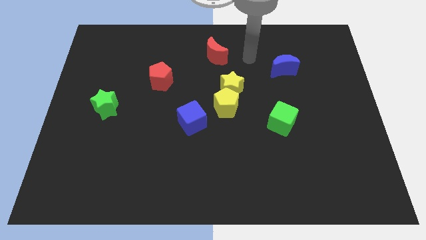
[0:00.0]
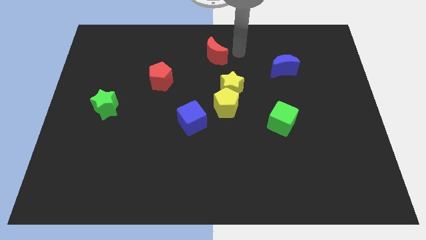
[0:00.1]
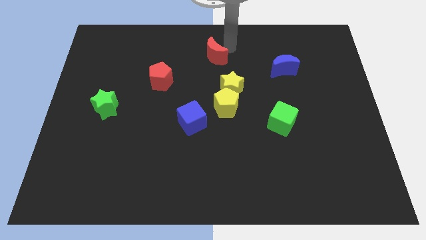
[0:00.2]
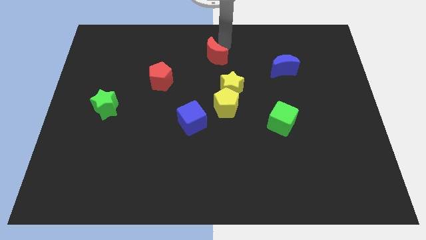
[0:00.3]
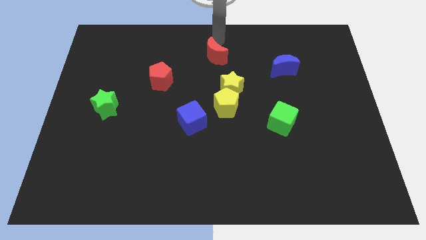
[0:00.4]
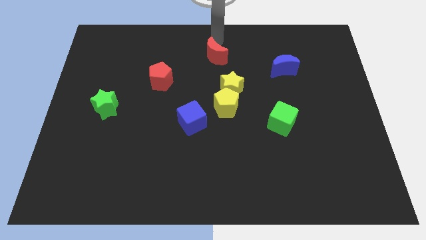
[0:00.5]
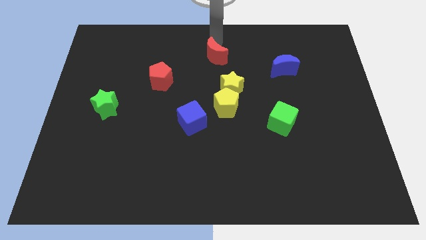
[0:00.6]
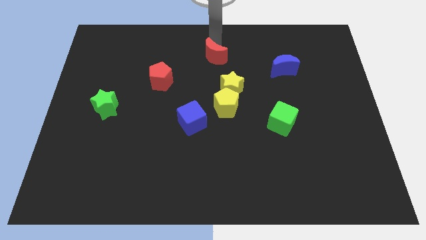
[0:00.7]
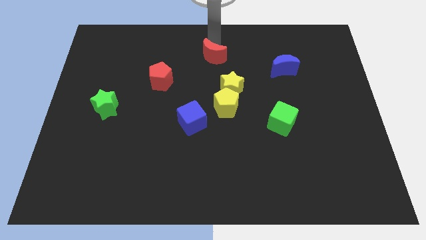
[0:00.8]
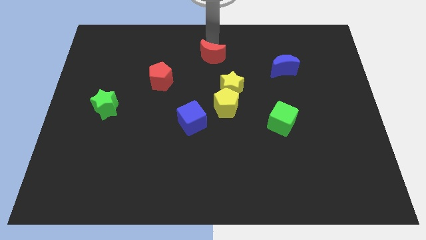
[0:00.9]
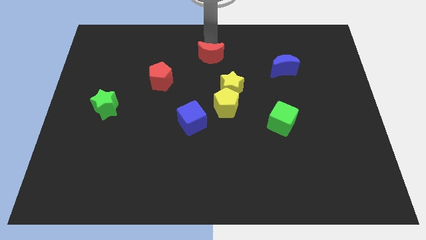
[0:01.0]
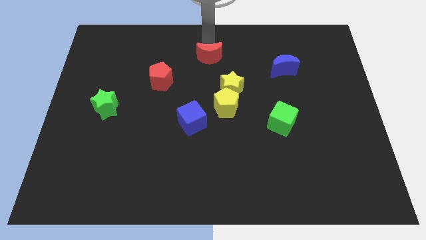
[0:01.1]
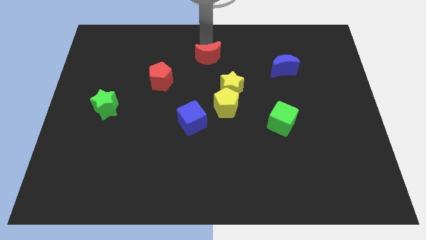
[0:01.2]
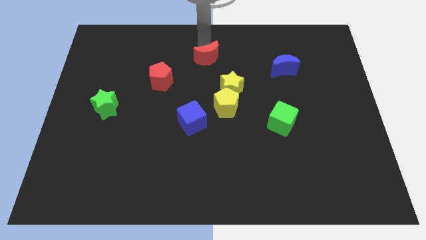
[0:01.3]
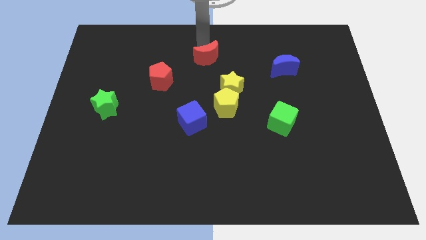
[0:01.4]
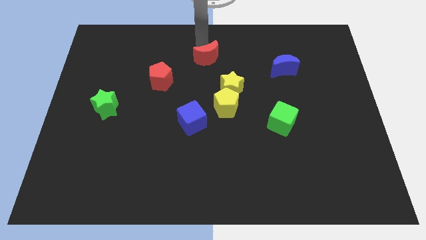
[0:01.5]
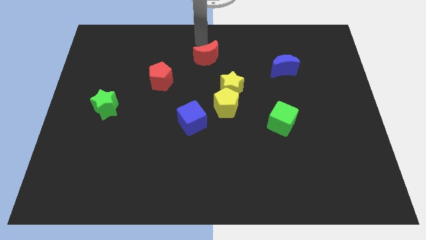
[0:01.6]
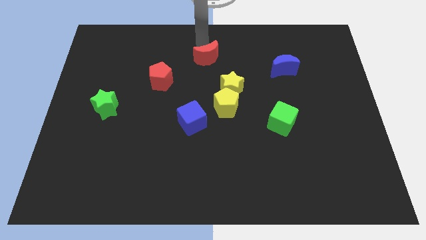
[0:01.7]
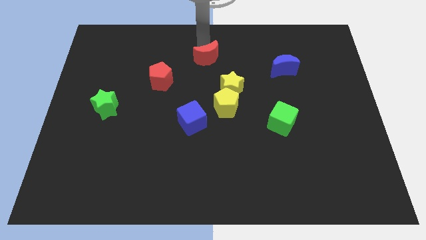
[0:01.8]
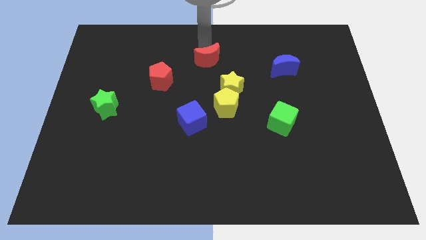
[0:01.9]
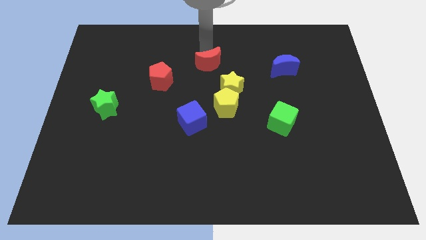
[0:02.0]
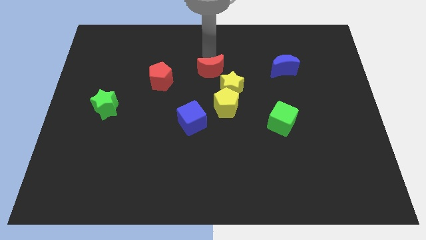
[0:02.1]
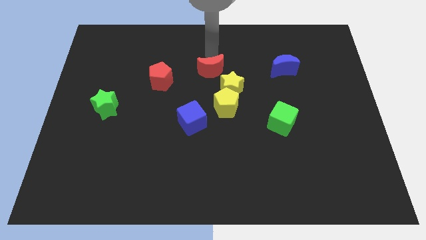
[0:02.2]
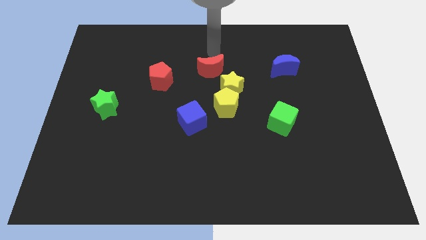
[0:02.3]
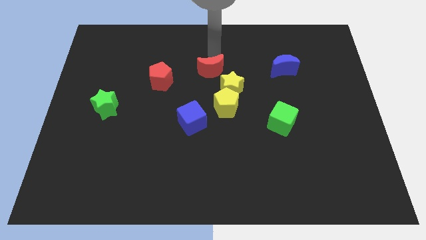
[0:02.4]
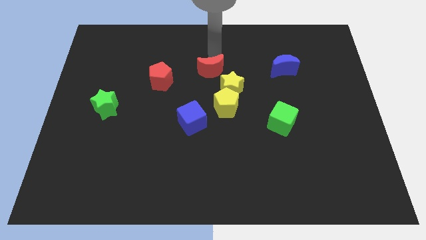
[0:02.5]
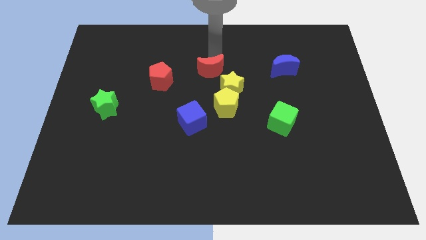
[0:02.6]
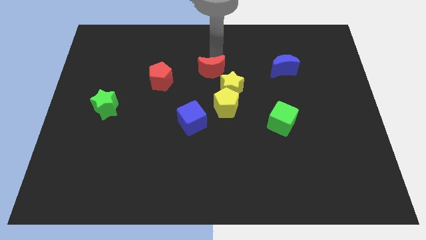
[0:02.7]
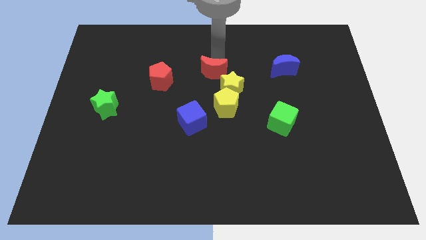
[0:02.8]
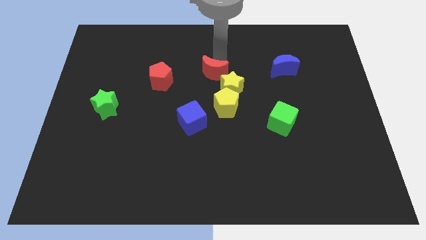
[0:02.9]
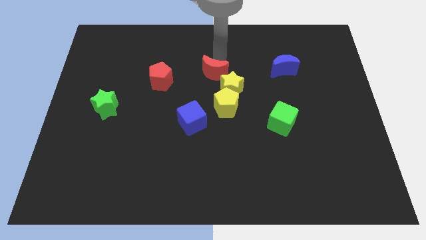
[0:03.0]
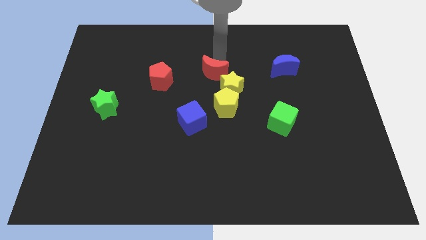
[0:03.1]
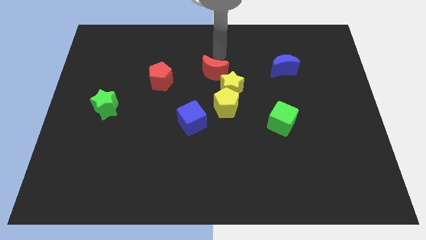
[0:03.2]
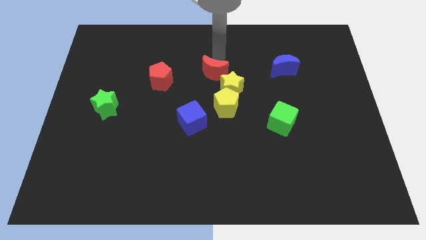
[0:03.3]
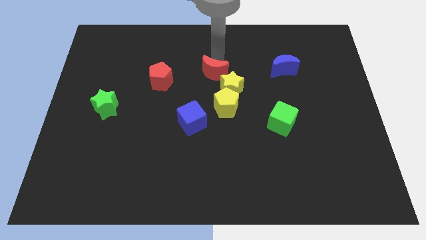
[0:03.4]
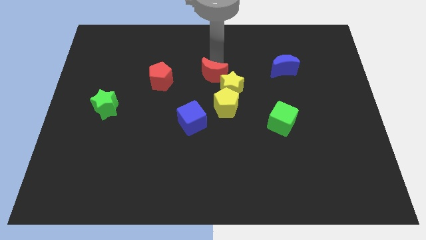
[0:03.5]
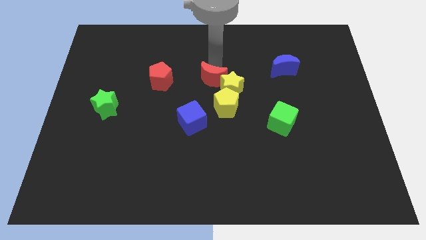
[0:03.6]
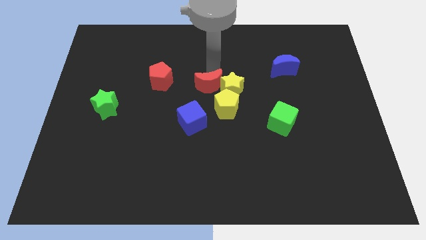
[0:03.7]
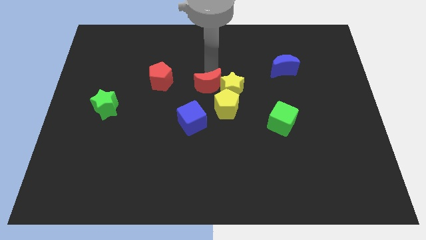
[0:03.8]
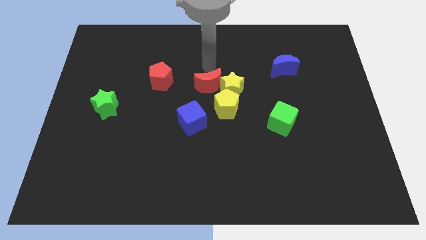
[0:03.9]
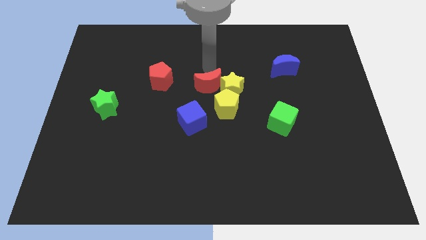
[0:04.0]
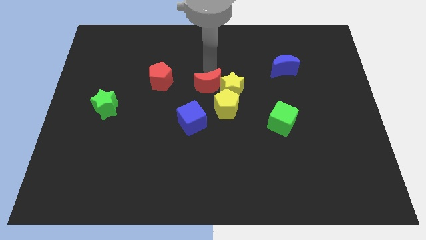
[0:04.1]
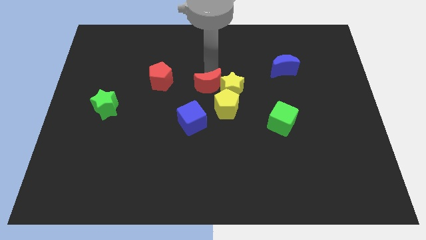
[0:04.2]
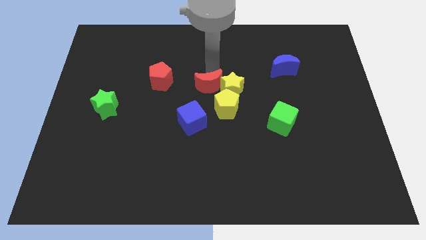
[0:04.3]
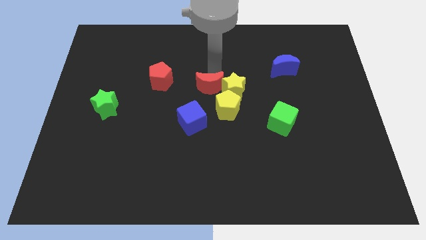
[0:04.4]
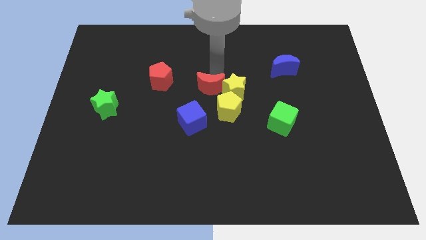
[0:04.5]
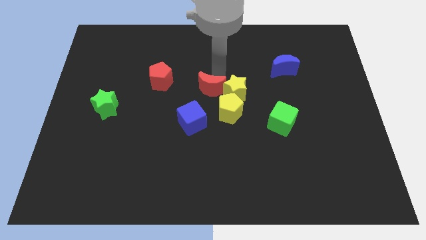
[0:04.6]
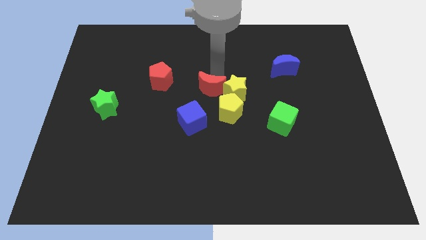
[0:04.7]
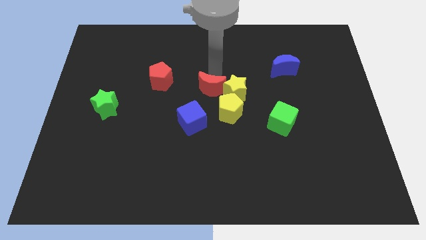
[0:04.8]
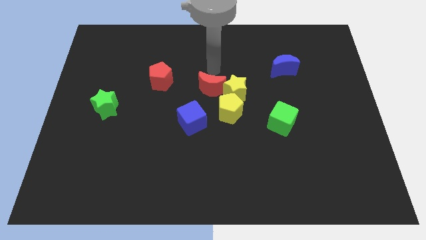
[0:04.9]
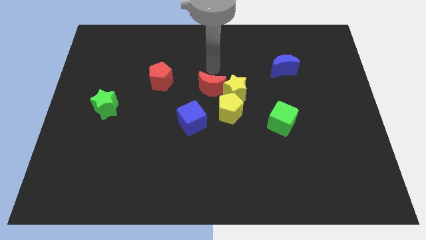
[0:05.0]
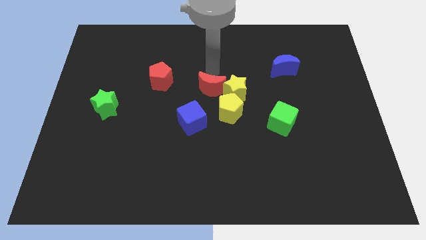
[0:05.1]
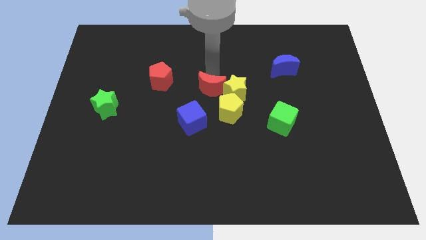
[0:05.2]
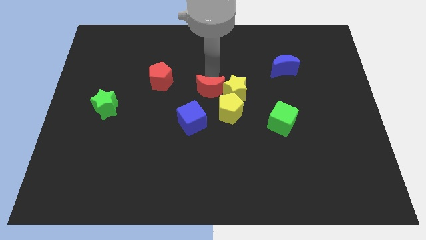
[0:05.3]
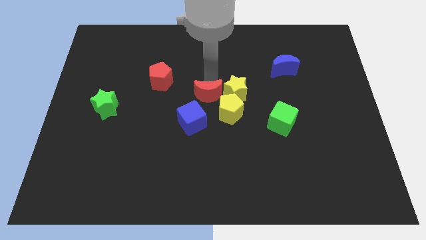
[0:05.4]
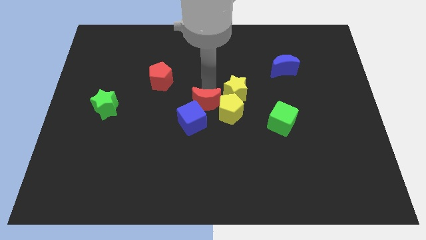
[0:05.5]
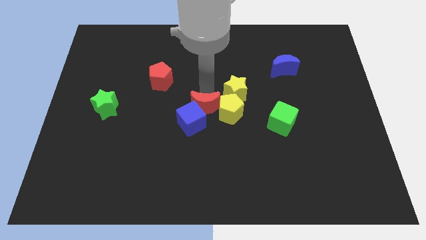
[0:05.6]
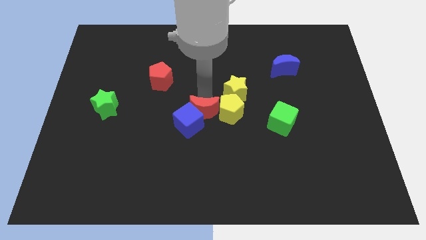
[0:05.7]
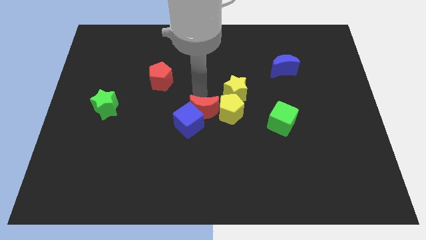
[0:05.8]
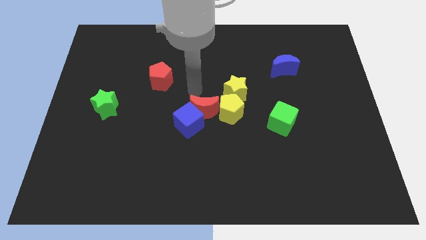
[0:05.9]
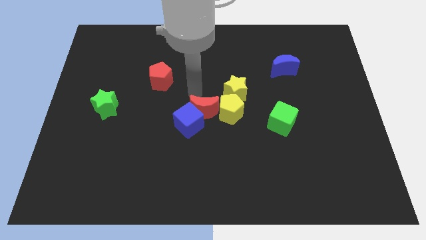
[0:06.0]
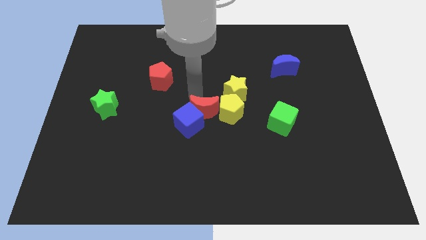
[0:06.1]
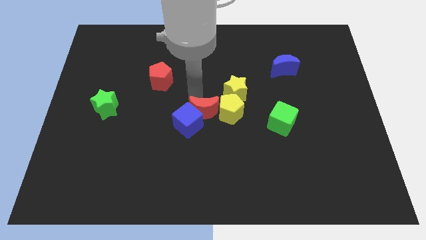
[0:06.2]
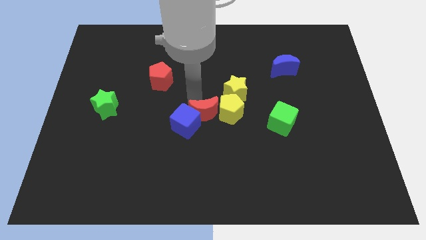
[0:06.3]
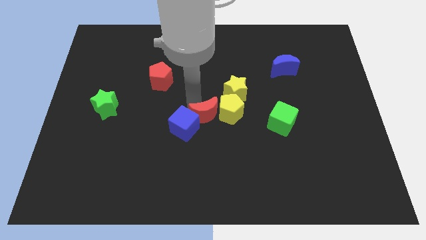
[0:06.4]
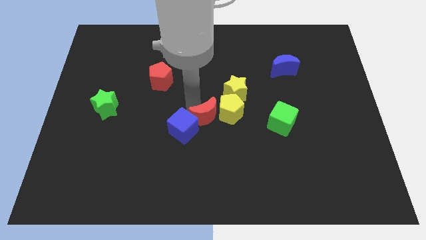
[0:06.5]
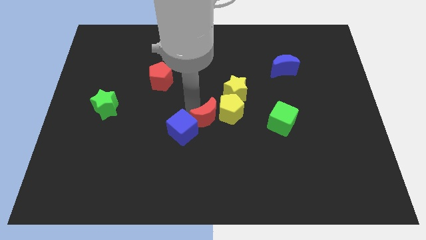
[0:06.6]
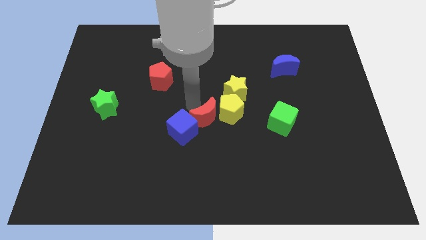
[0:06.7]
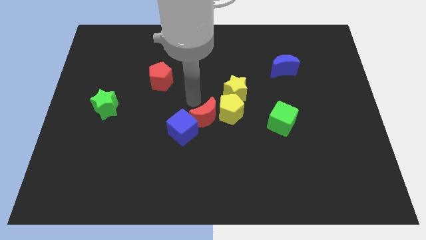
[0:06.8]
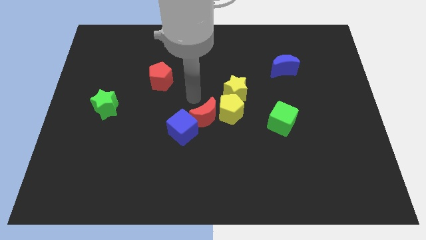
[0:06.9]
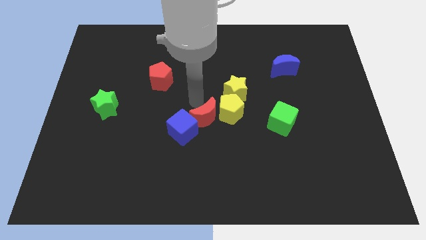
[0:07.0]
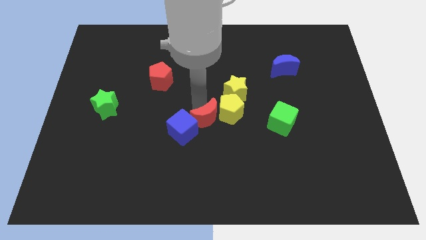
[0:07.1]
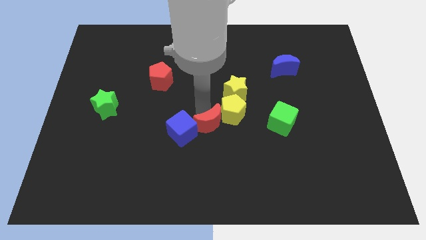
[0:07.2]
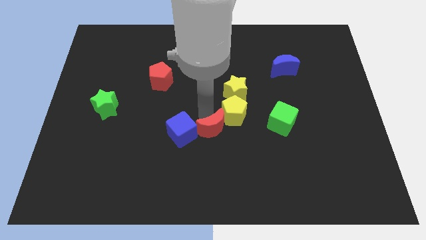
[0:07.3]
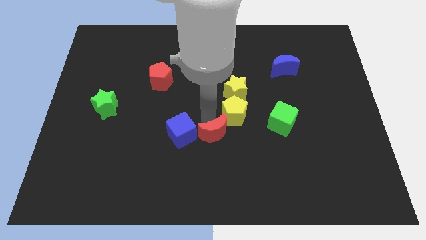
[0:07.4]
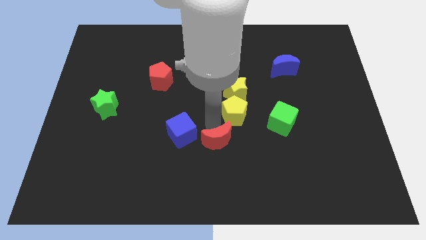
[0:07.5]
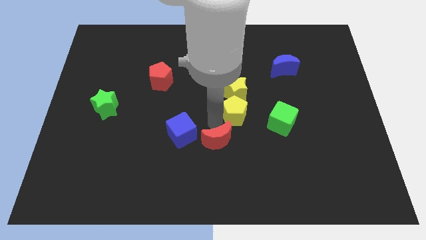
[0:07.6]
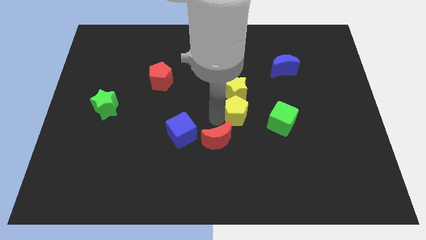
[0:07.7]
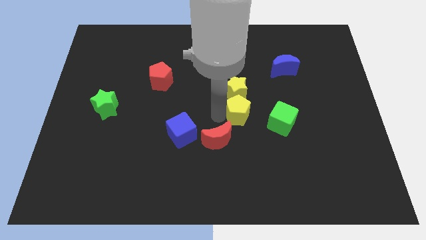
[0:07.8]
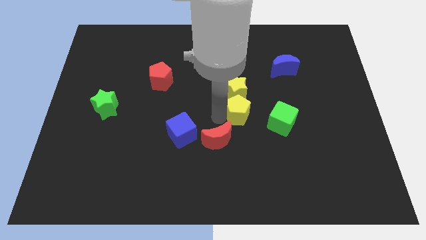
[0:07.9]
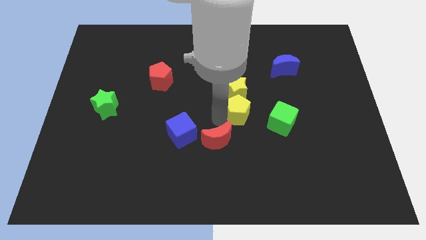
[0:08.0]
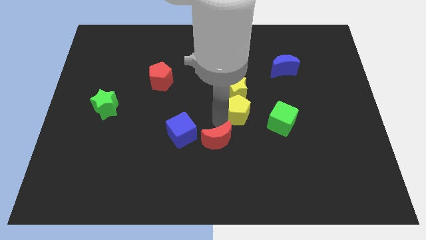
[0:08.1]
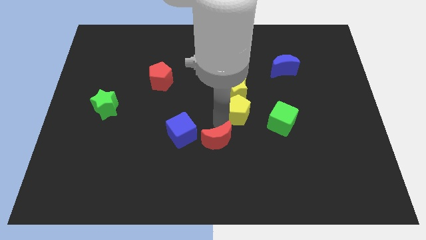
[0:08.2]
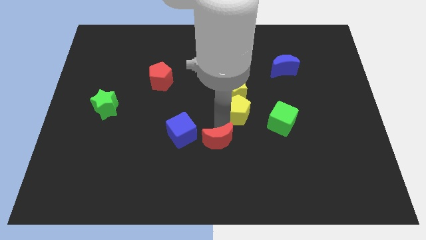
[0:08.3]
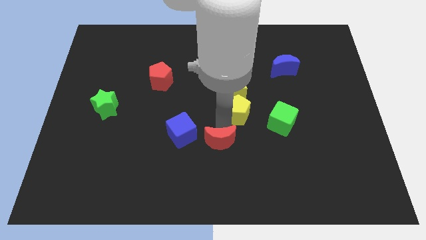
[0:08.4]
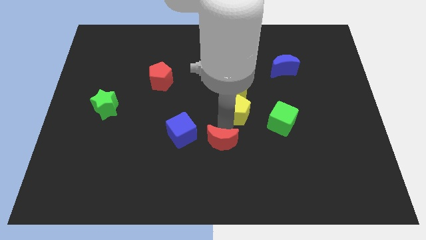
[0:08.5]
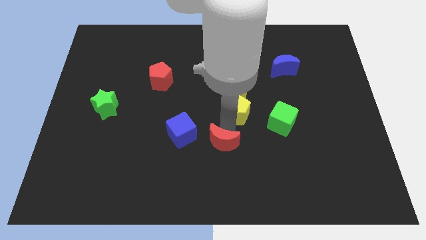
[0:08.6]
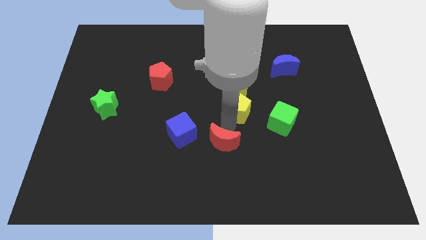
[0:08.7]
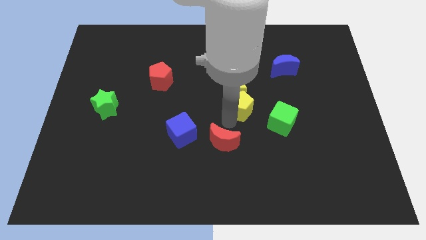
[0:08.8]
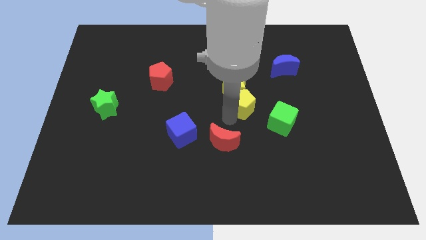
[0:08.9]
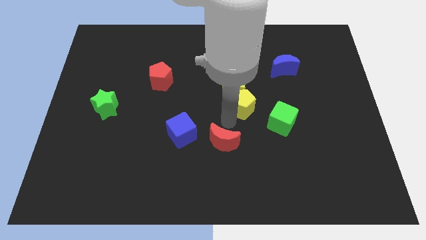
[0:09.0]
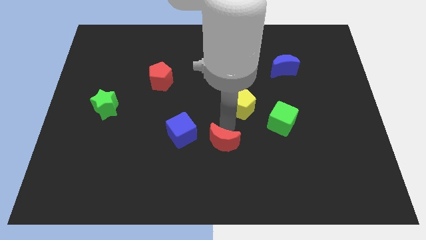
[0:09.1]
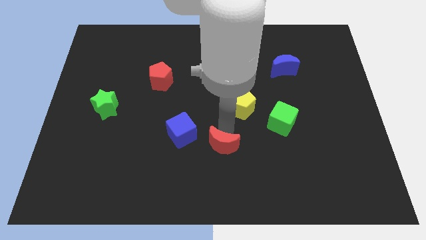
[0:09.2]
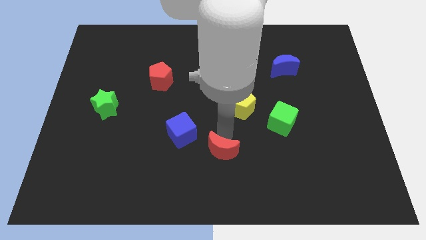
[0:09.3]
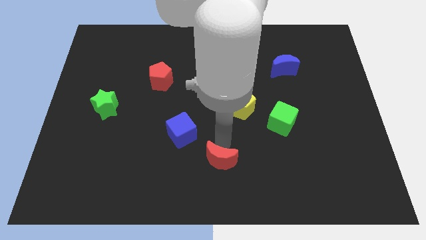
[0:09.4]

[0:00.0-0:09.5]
move the red moon to the bottom side
